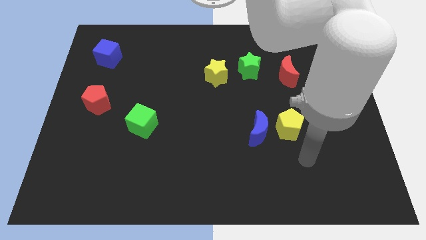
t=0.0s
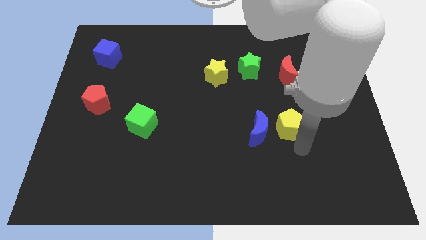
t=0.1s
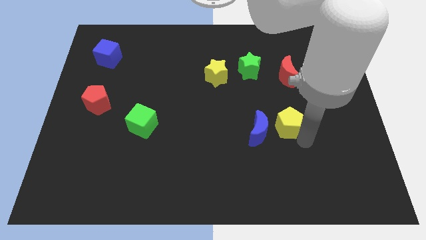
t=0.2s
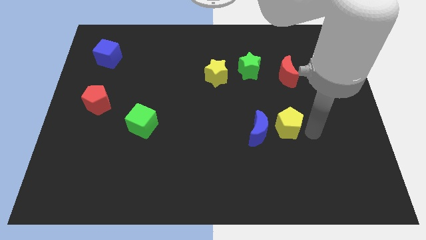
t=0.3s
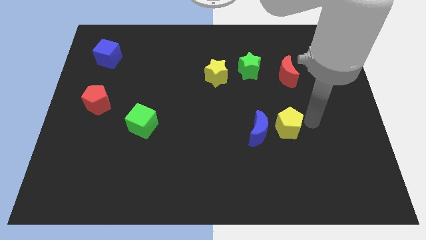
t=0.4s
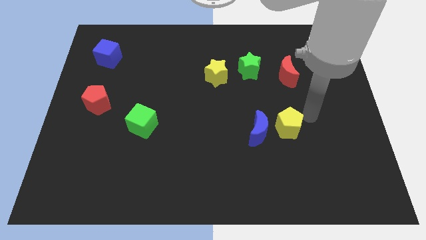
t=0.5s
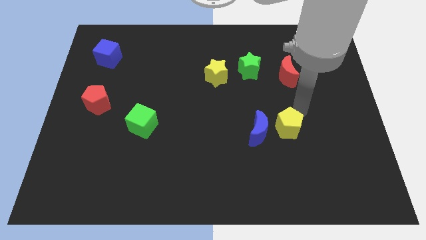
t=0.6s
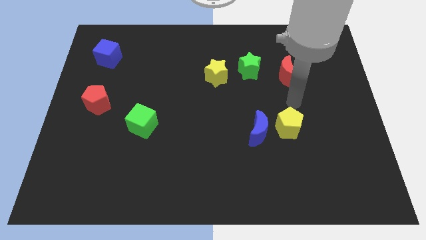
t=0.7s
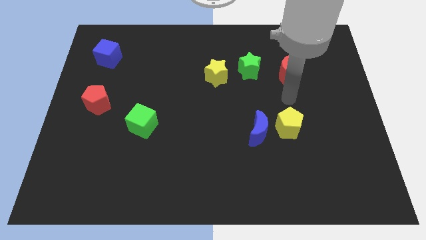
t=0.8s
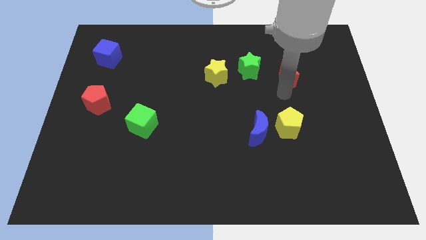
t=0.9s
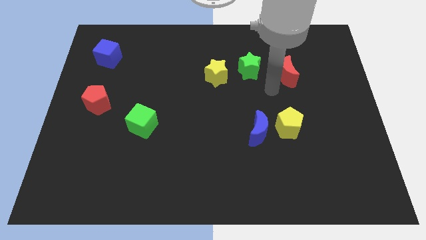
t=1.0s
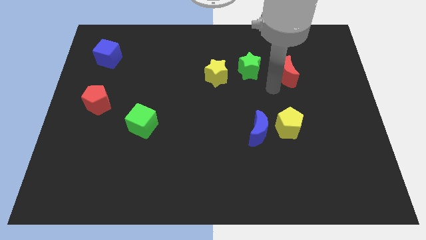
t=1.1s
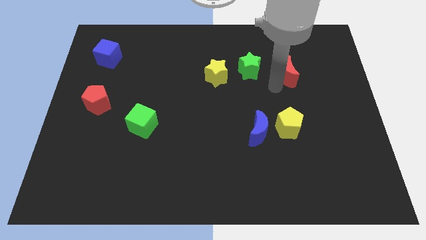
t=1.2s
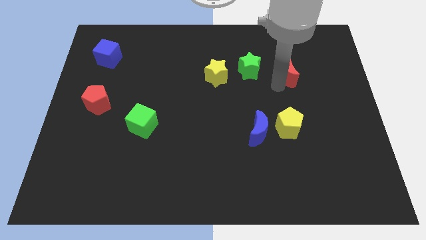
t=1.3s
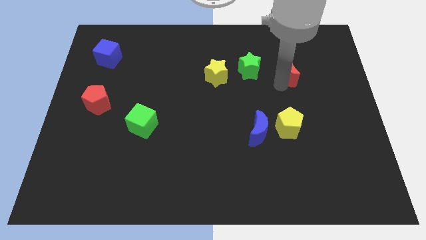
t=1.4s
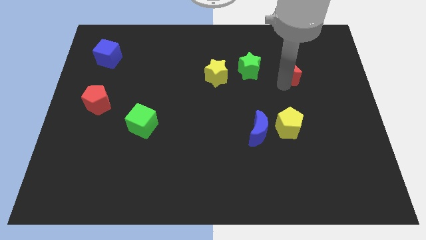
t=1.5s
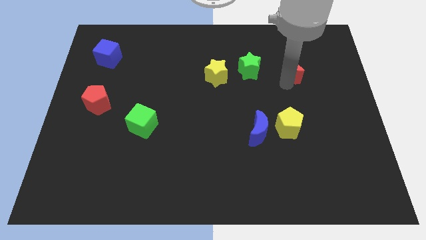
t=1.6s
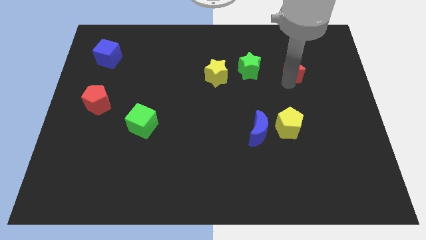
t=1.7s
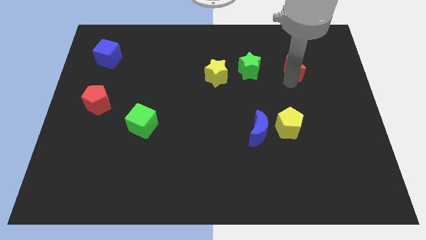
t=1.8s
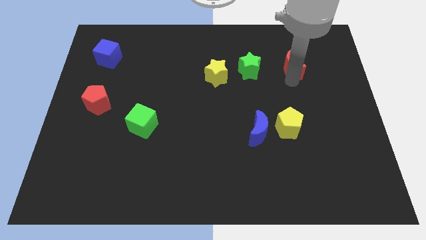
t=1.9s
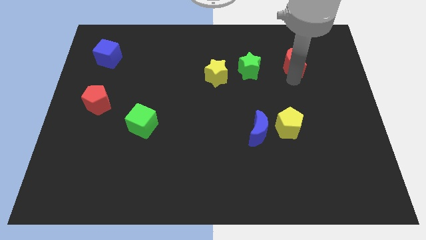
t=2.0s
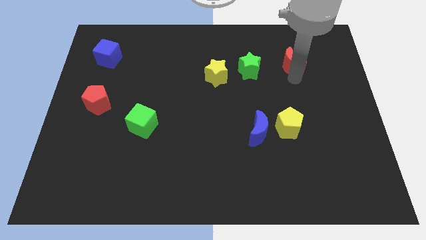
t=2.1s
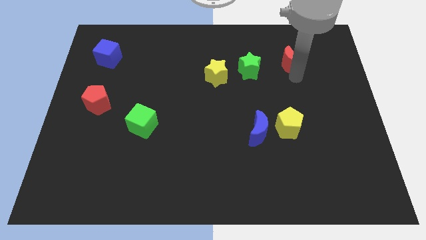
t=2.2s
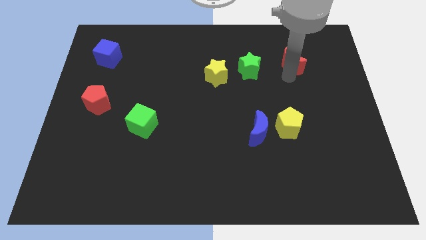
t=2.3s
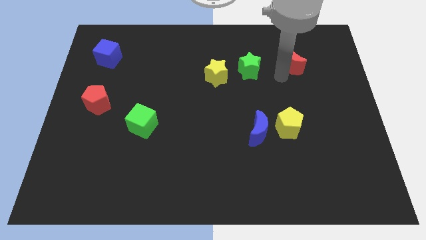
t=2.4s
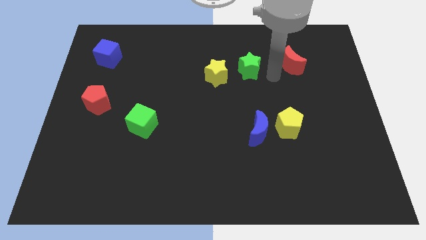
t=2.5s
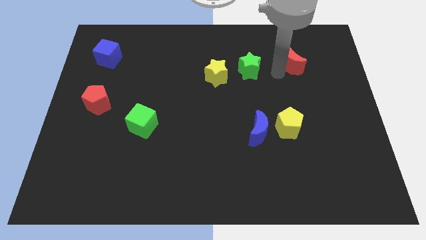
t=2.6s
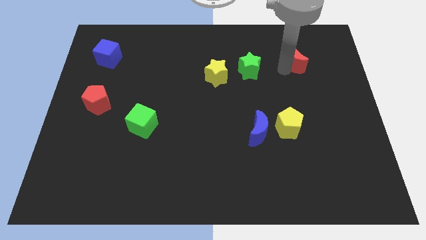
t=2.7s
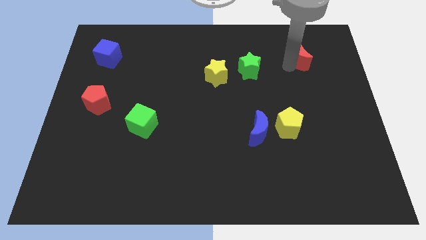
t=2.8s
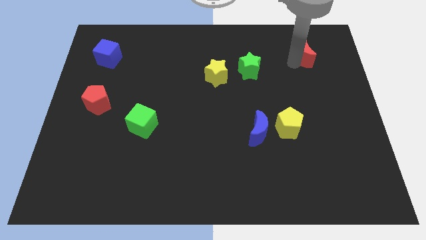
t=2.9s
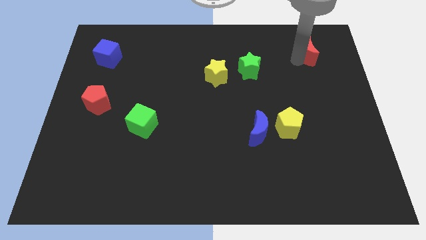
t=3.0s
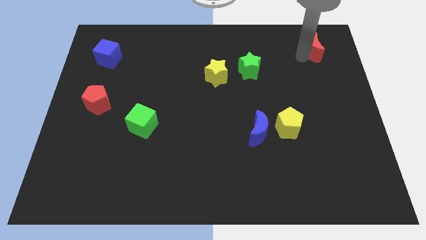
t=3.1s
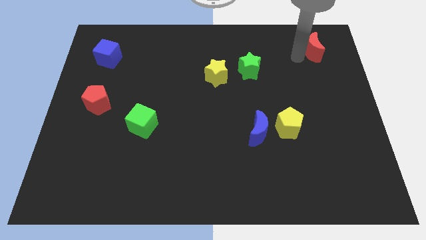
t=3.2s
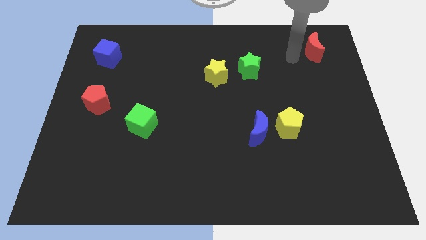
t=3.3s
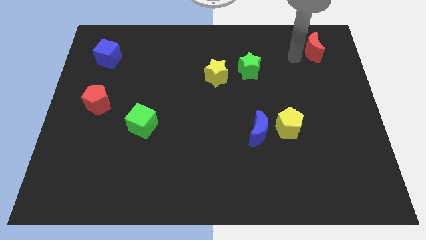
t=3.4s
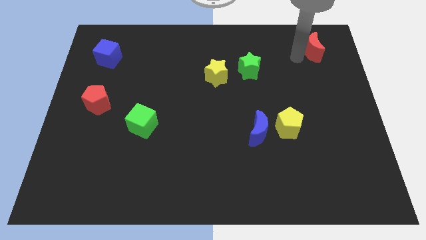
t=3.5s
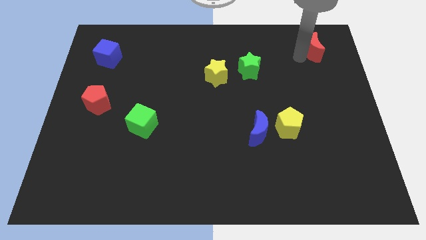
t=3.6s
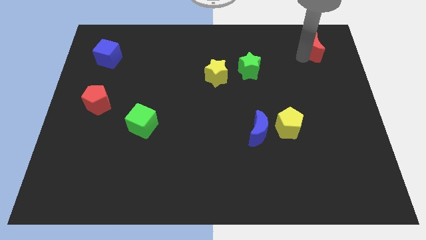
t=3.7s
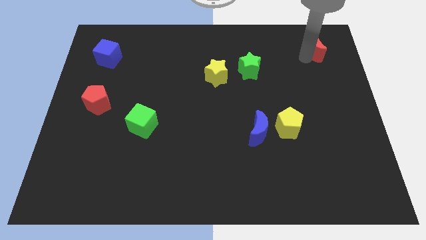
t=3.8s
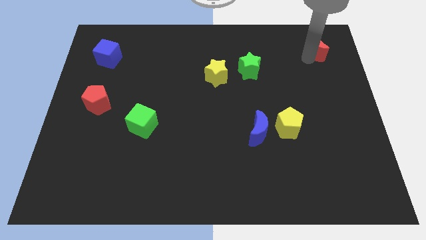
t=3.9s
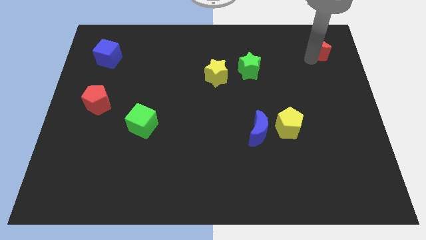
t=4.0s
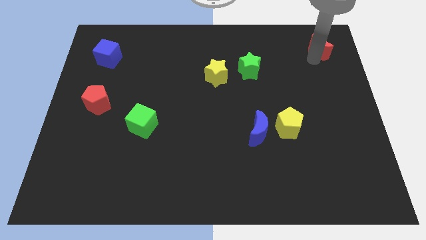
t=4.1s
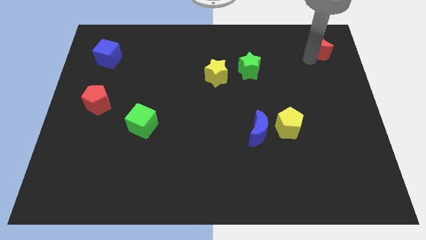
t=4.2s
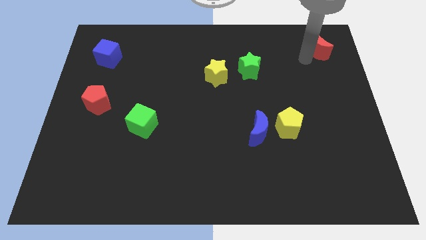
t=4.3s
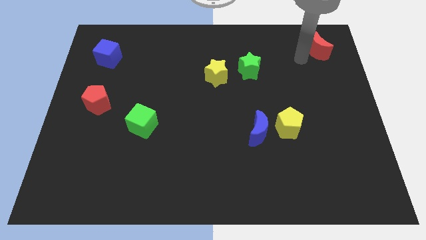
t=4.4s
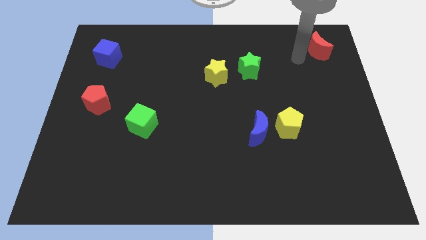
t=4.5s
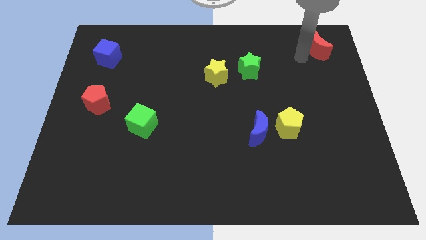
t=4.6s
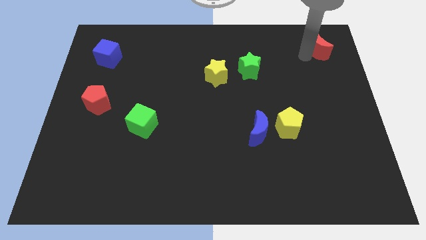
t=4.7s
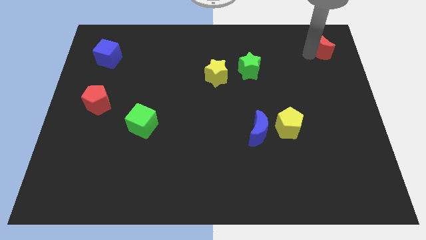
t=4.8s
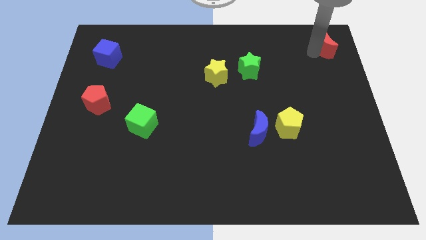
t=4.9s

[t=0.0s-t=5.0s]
slide the red moon to the upper right corner

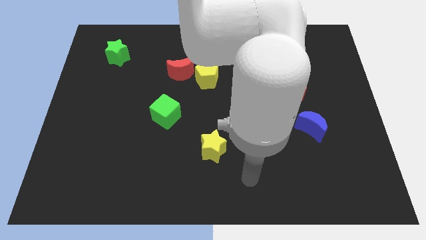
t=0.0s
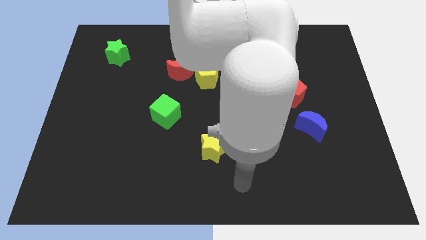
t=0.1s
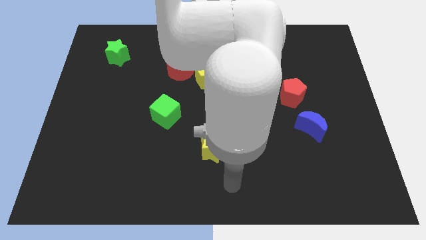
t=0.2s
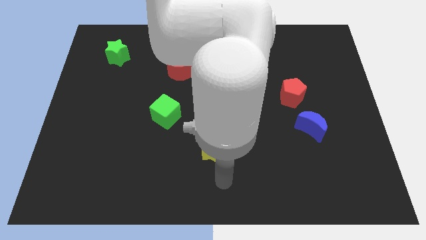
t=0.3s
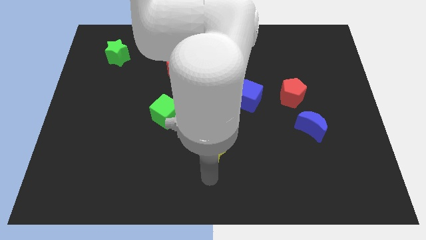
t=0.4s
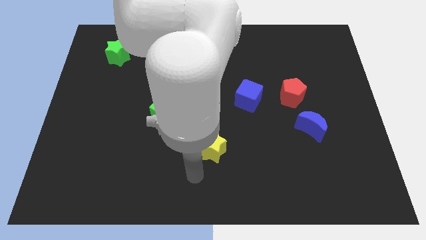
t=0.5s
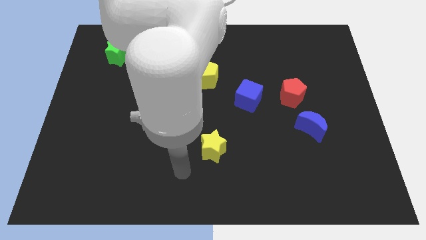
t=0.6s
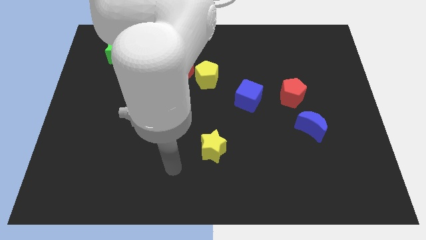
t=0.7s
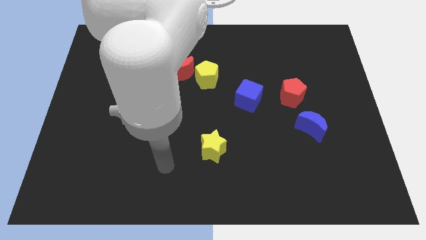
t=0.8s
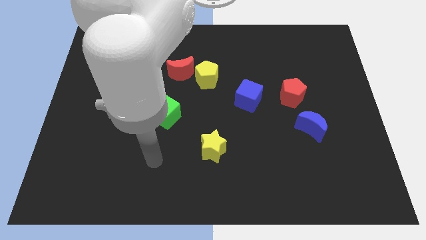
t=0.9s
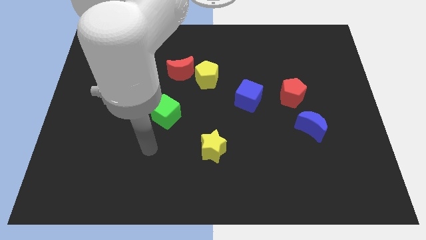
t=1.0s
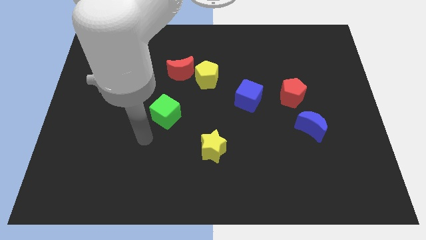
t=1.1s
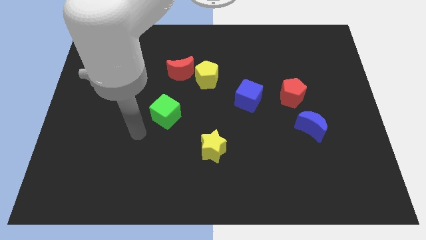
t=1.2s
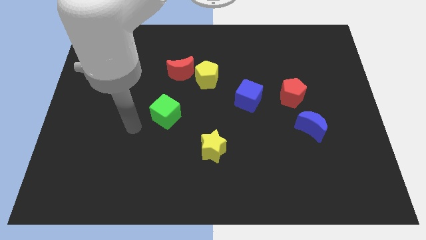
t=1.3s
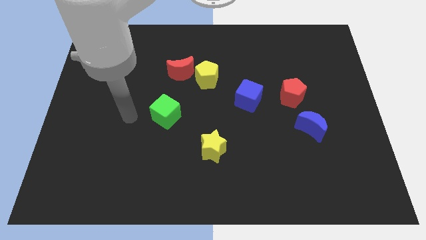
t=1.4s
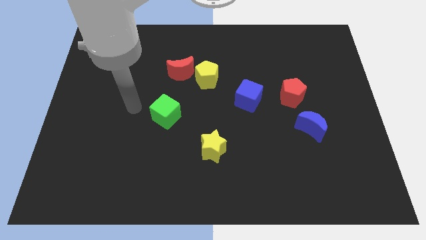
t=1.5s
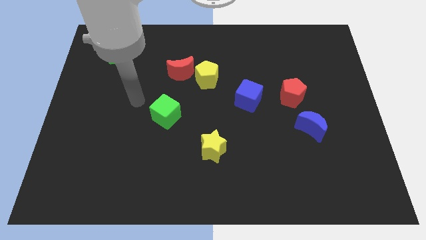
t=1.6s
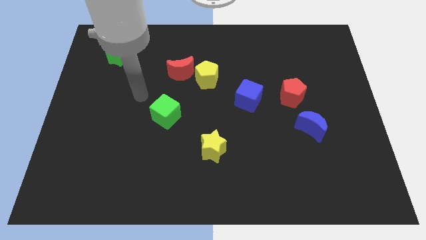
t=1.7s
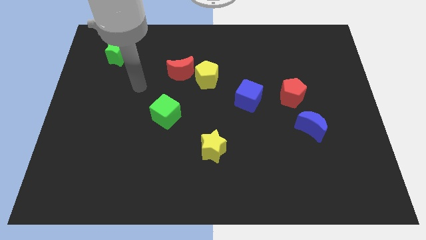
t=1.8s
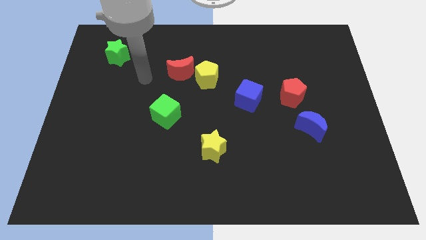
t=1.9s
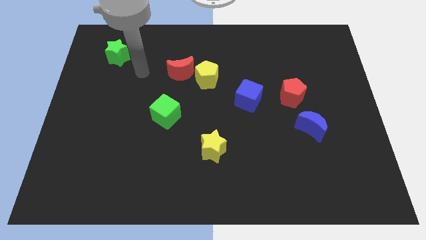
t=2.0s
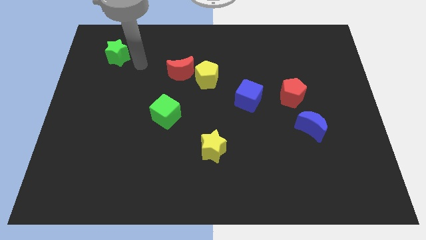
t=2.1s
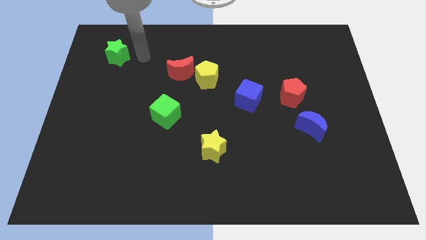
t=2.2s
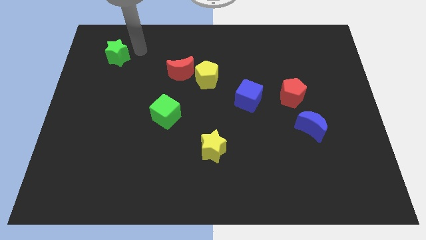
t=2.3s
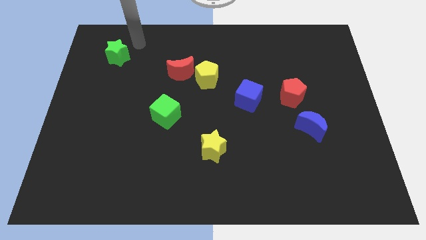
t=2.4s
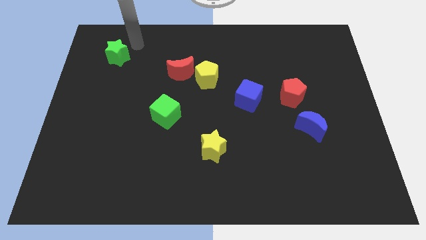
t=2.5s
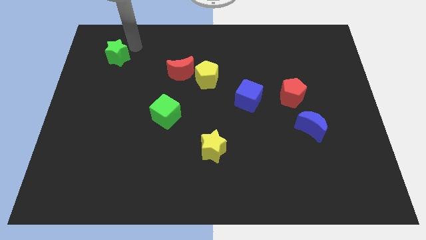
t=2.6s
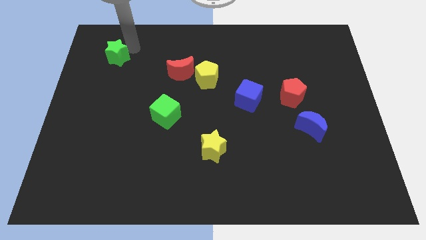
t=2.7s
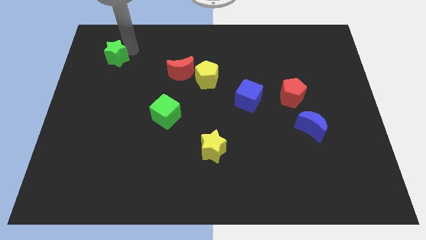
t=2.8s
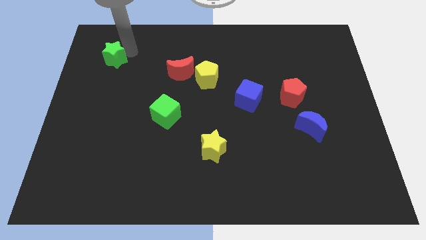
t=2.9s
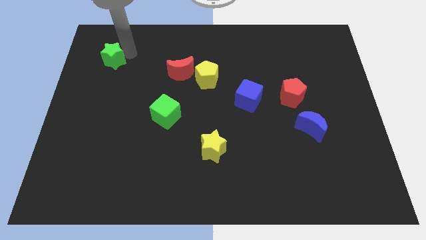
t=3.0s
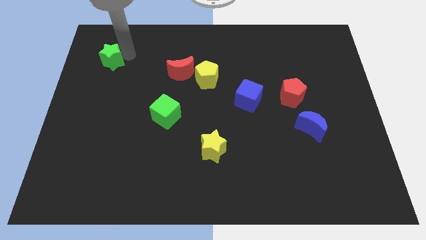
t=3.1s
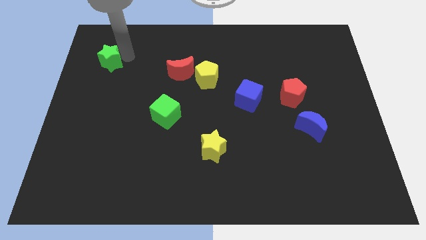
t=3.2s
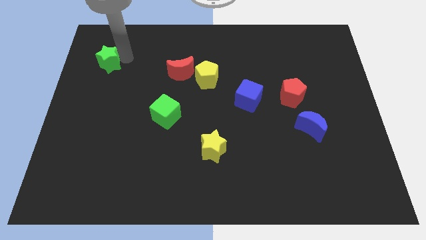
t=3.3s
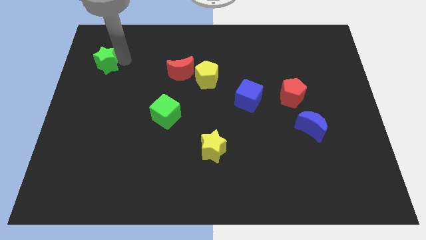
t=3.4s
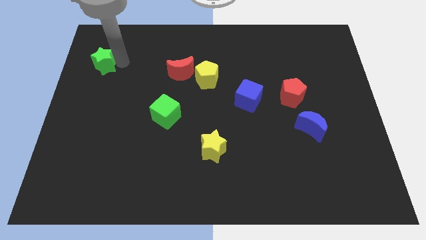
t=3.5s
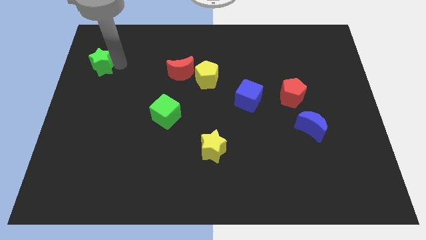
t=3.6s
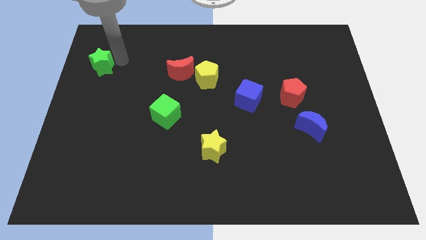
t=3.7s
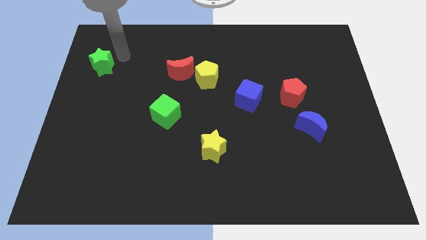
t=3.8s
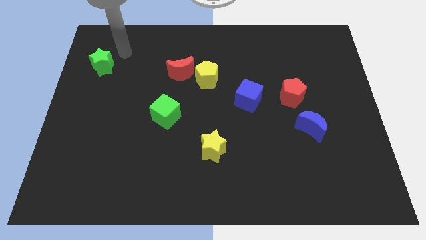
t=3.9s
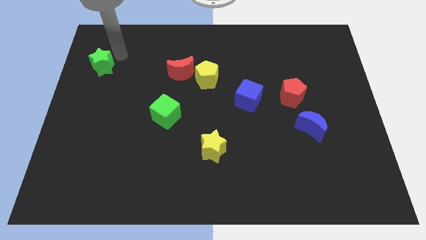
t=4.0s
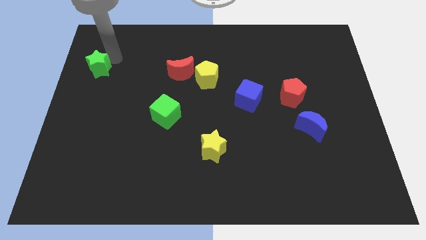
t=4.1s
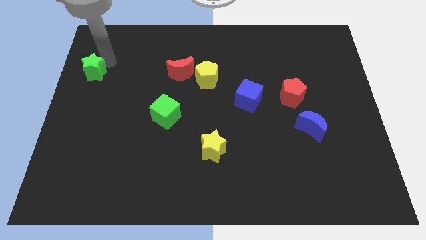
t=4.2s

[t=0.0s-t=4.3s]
push the green star to the center left
